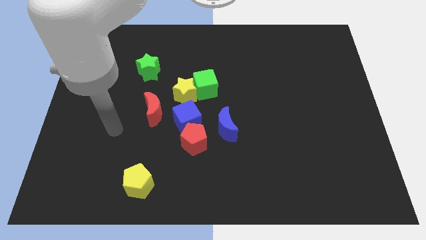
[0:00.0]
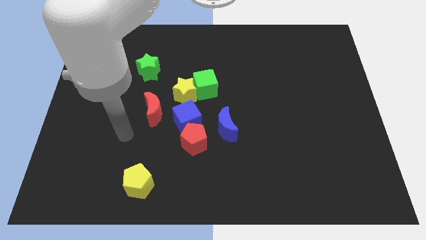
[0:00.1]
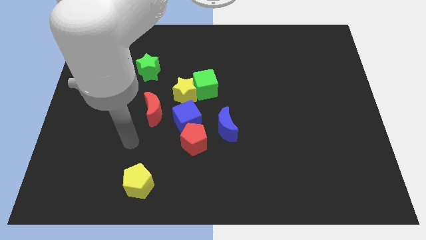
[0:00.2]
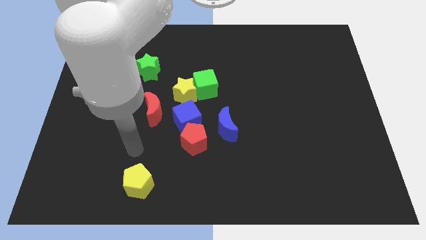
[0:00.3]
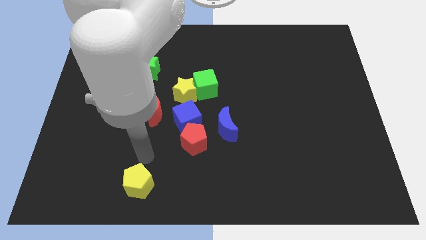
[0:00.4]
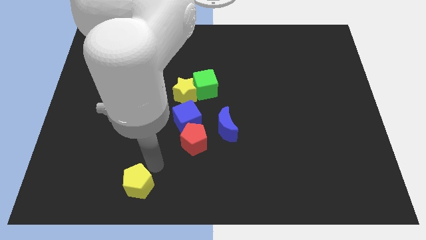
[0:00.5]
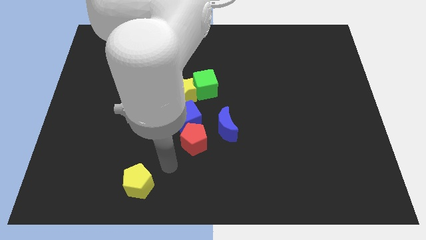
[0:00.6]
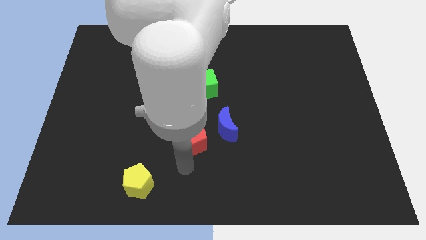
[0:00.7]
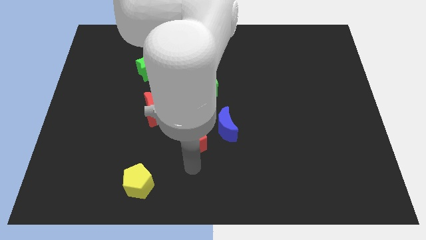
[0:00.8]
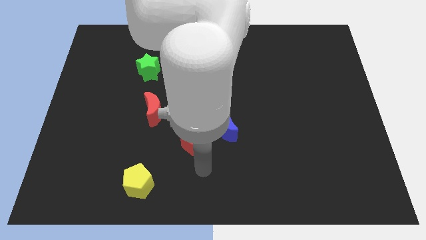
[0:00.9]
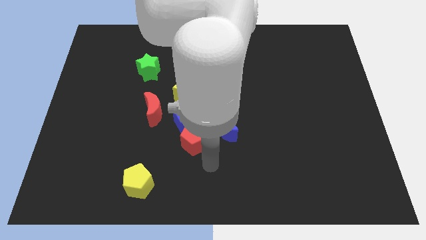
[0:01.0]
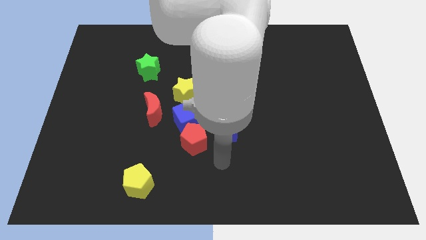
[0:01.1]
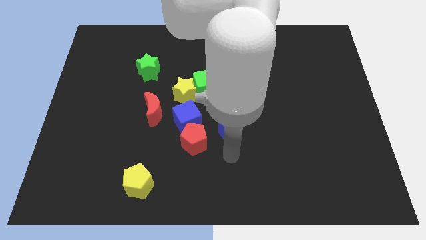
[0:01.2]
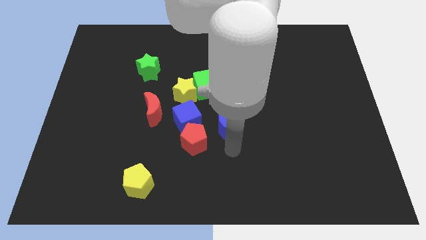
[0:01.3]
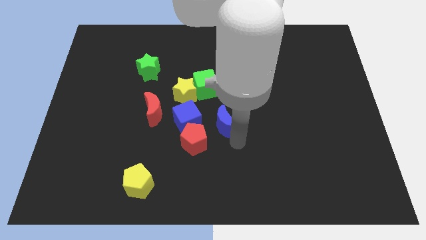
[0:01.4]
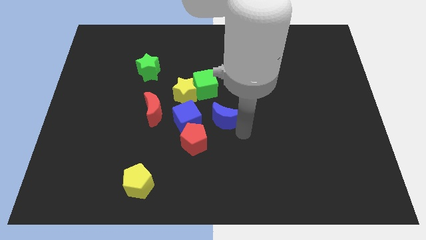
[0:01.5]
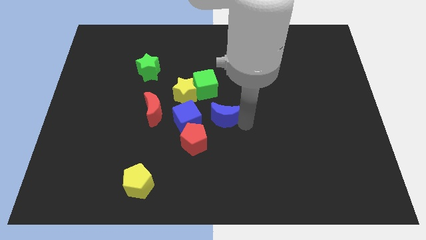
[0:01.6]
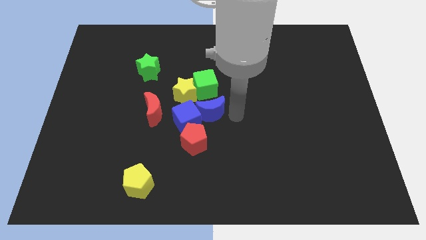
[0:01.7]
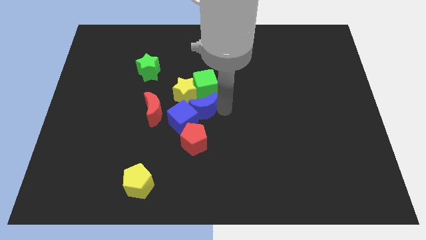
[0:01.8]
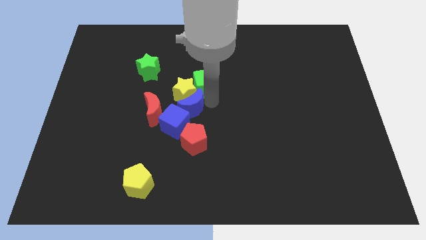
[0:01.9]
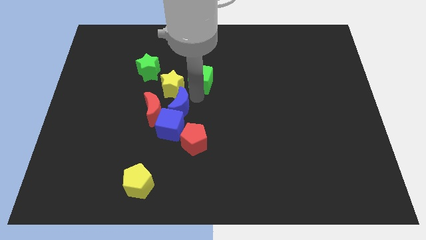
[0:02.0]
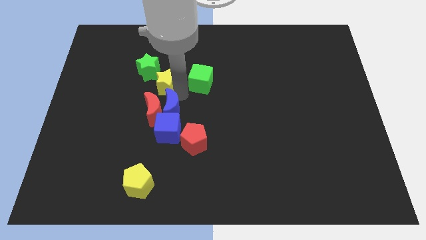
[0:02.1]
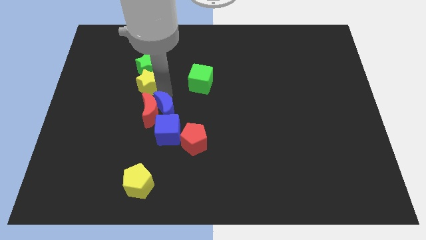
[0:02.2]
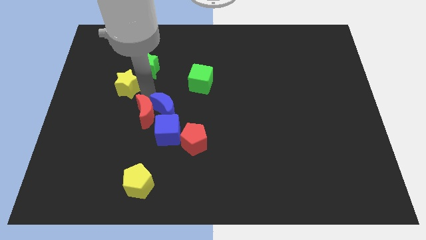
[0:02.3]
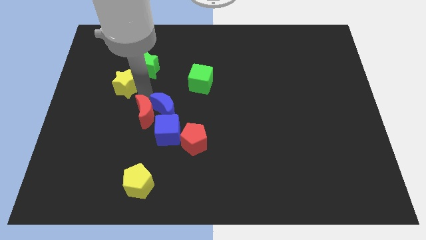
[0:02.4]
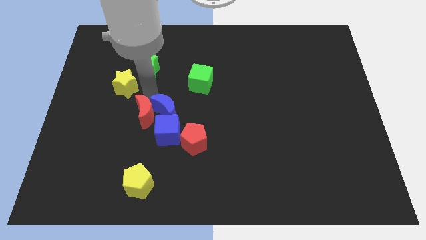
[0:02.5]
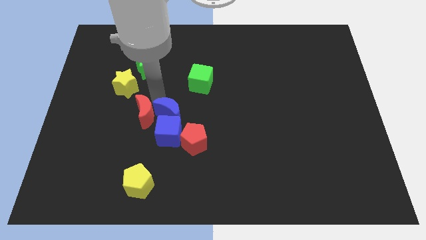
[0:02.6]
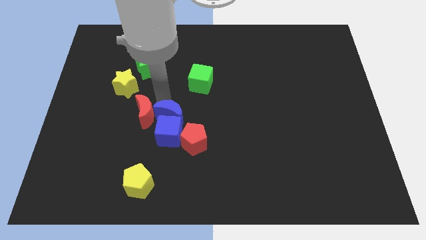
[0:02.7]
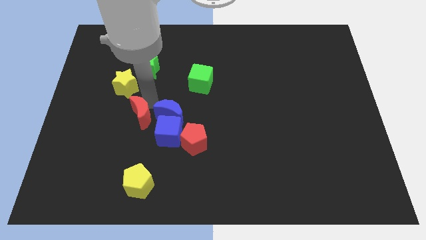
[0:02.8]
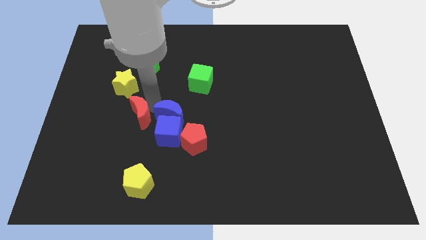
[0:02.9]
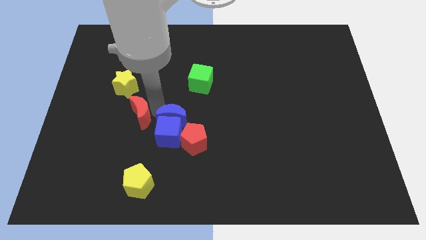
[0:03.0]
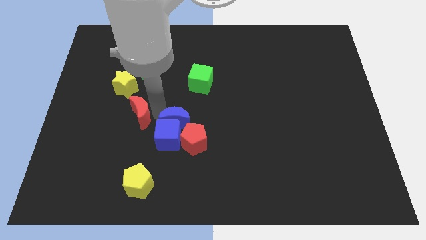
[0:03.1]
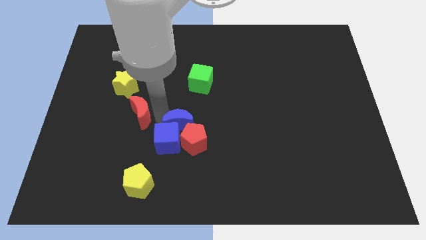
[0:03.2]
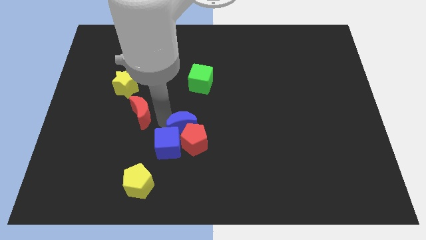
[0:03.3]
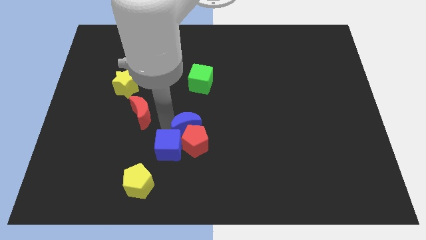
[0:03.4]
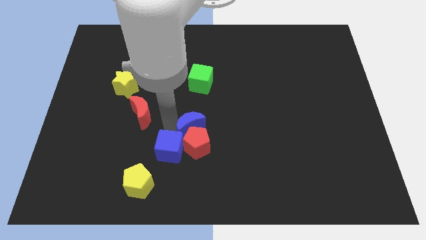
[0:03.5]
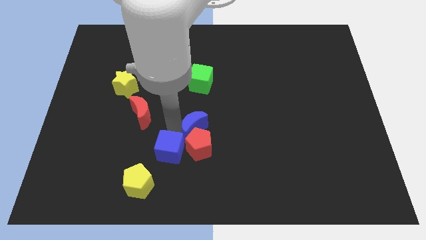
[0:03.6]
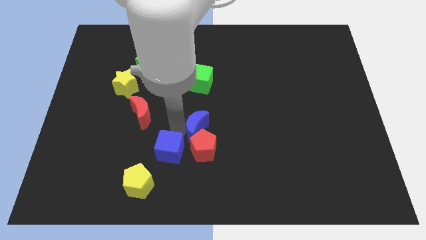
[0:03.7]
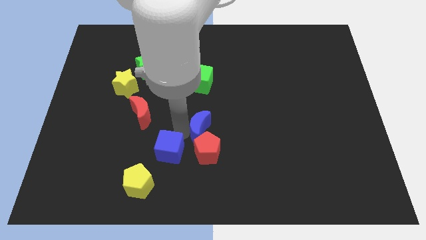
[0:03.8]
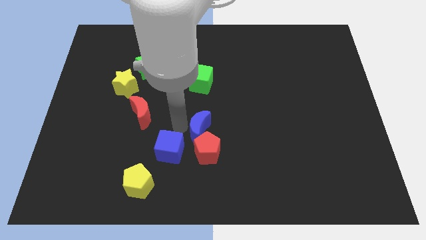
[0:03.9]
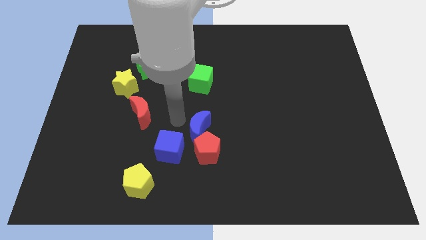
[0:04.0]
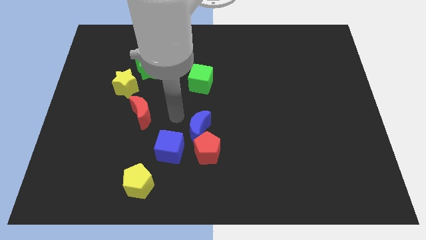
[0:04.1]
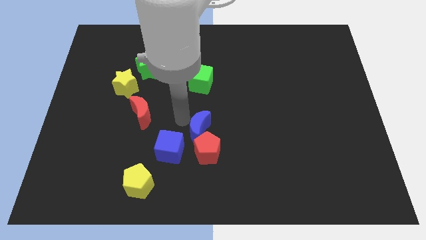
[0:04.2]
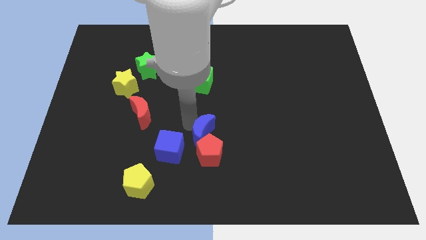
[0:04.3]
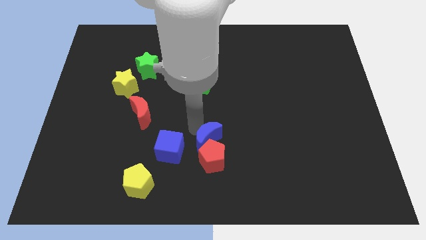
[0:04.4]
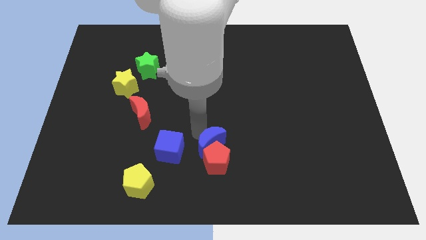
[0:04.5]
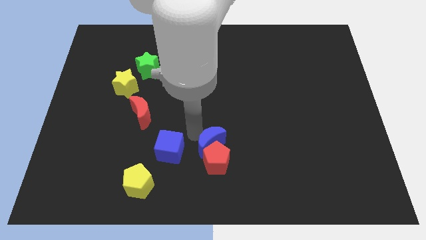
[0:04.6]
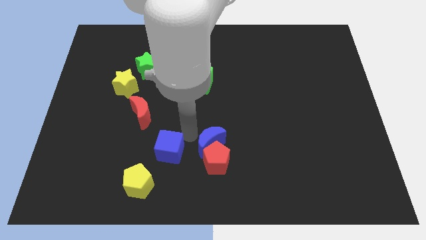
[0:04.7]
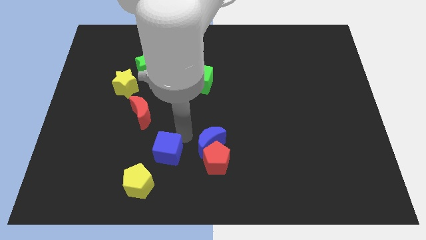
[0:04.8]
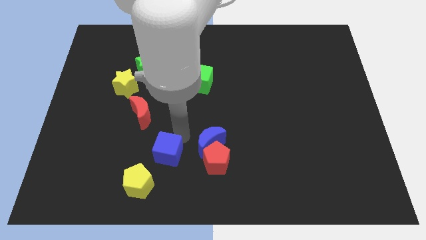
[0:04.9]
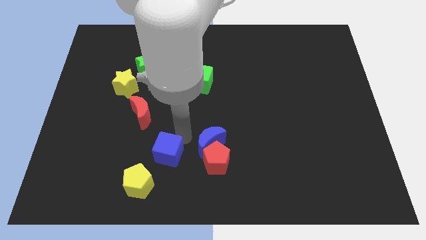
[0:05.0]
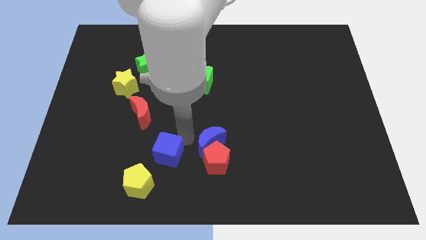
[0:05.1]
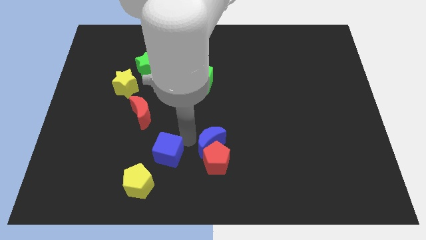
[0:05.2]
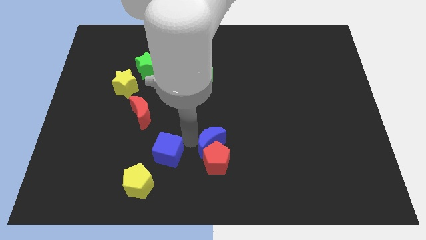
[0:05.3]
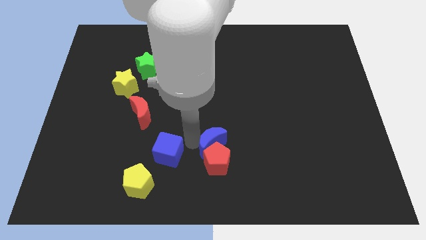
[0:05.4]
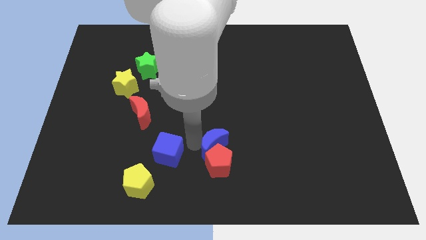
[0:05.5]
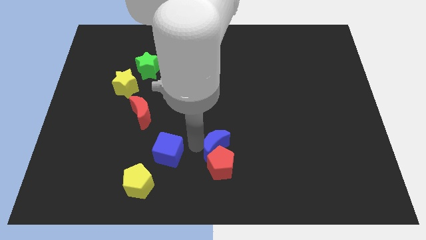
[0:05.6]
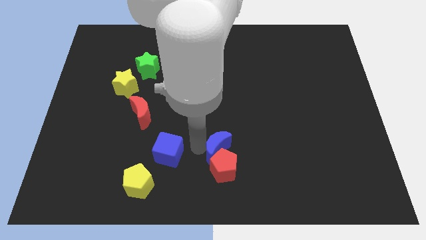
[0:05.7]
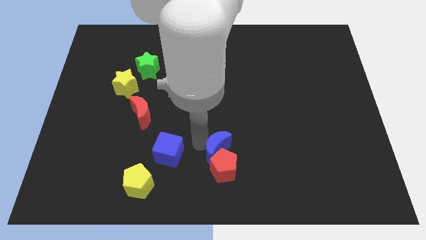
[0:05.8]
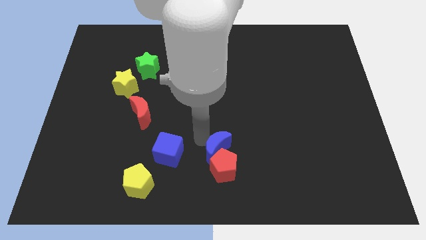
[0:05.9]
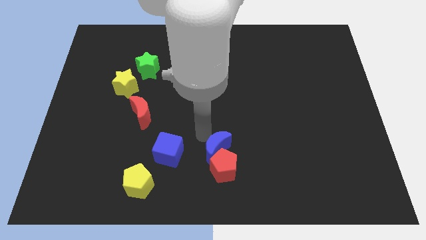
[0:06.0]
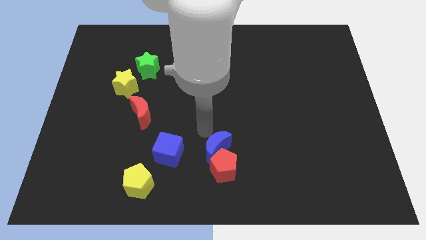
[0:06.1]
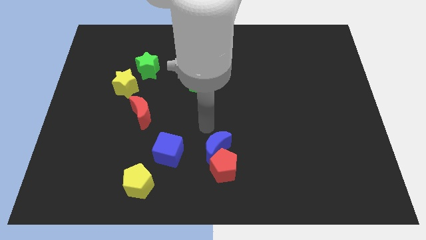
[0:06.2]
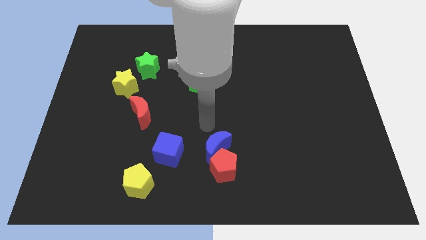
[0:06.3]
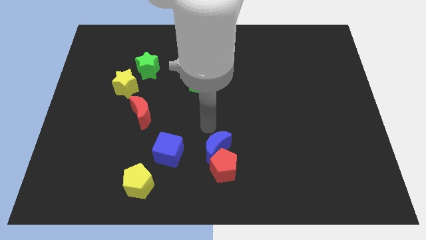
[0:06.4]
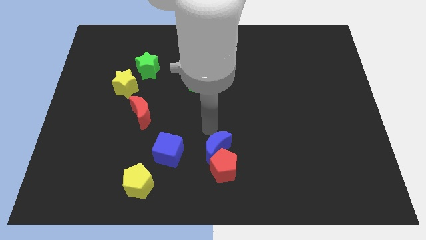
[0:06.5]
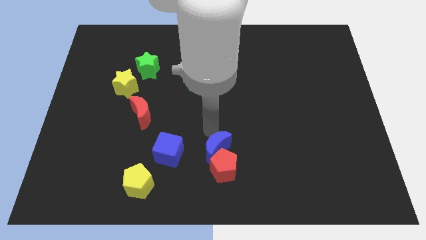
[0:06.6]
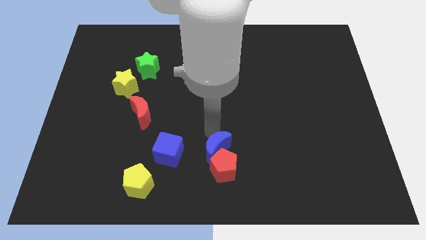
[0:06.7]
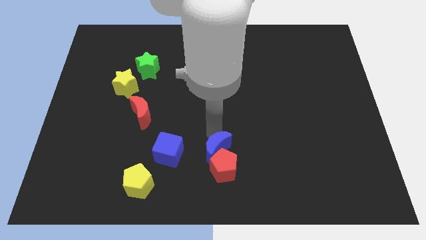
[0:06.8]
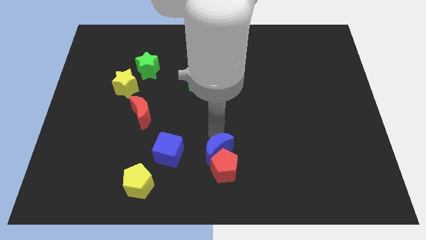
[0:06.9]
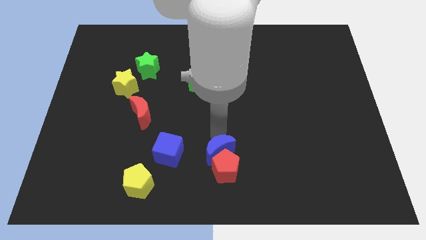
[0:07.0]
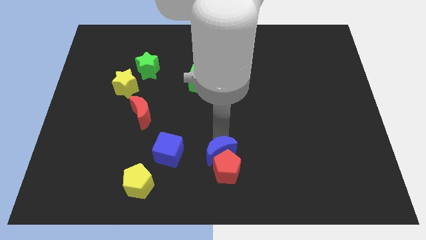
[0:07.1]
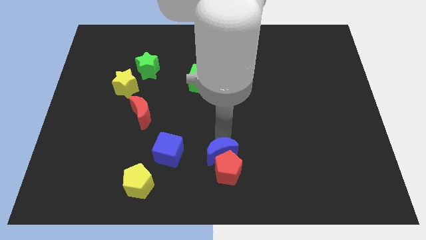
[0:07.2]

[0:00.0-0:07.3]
slide the blue moon to the bottom
